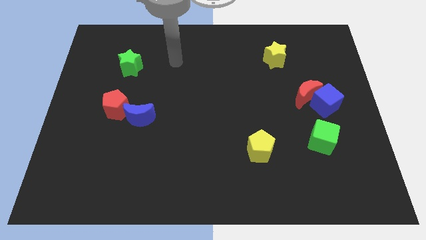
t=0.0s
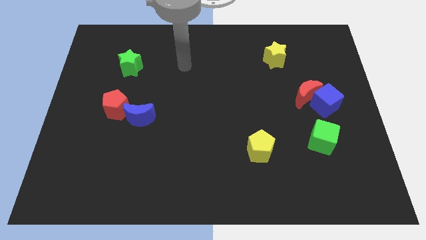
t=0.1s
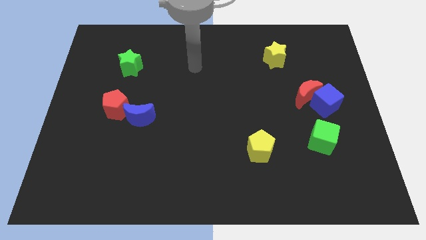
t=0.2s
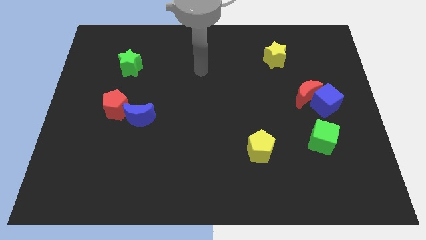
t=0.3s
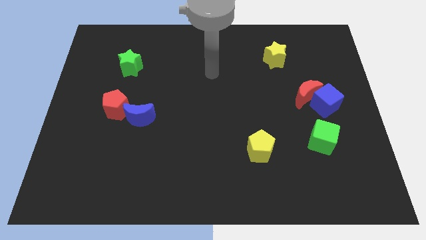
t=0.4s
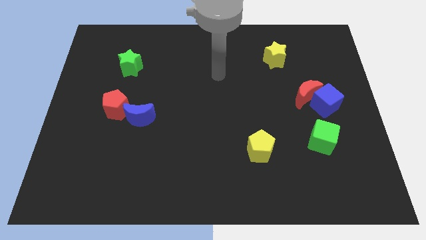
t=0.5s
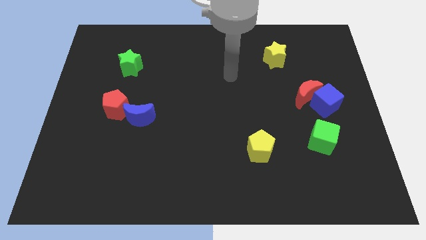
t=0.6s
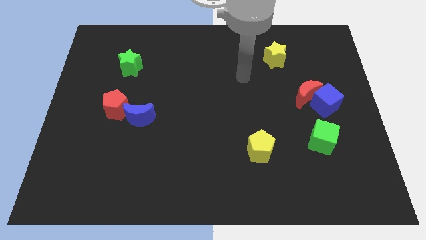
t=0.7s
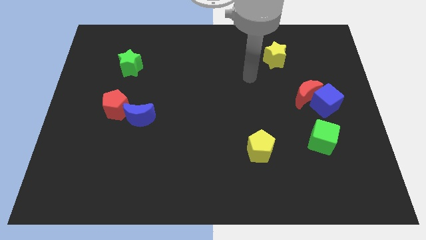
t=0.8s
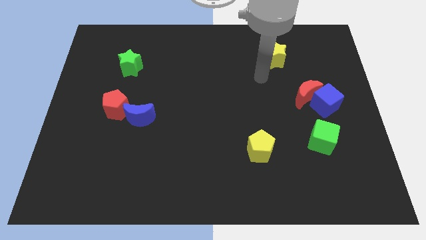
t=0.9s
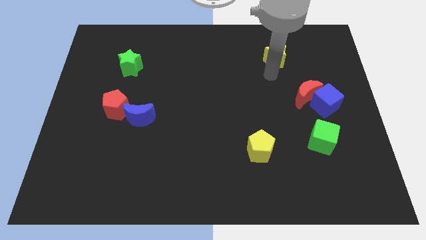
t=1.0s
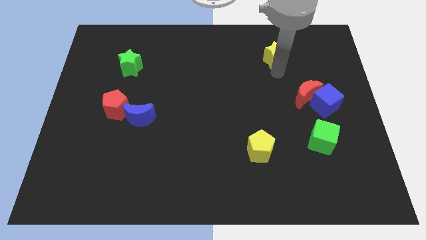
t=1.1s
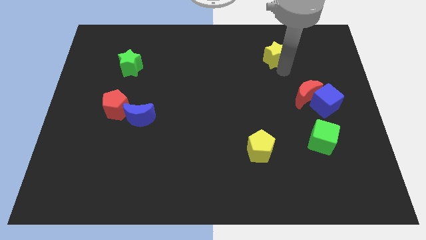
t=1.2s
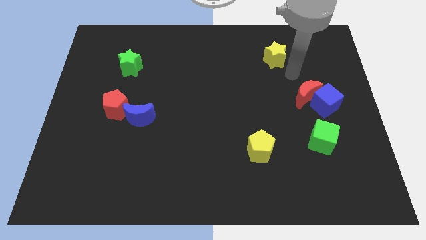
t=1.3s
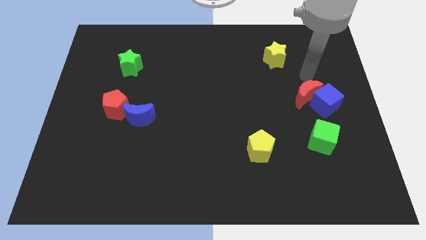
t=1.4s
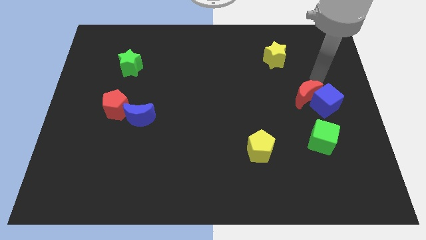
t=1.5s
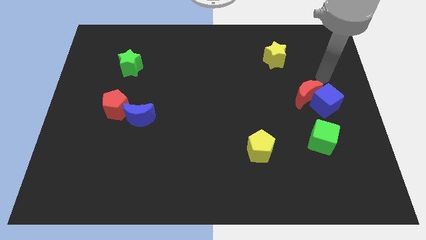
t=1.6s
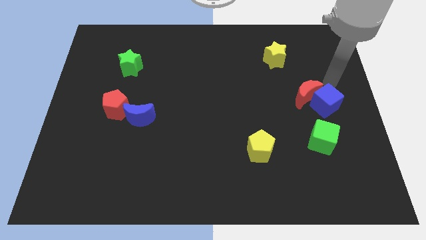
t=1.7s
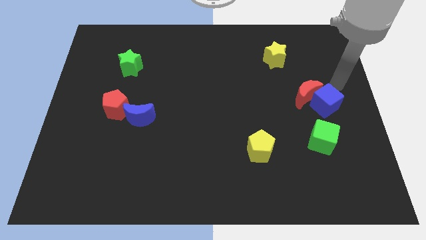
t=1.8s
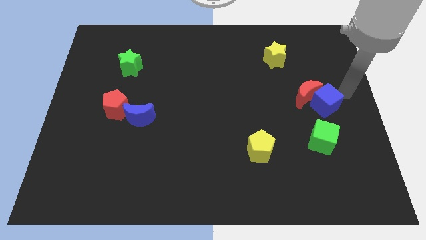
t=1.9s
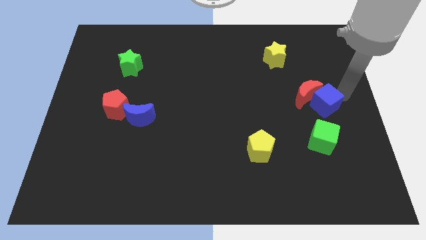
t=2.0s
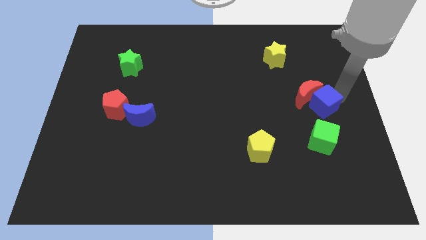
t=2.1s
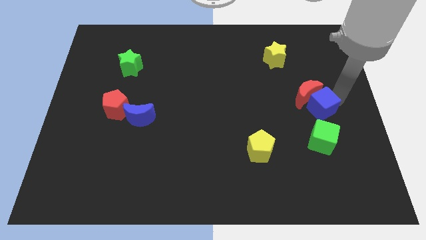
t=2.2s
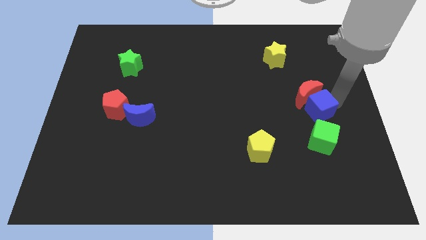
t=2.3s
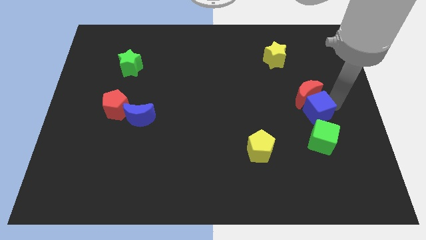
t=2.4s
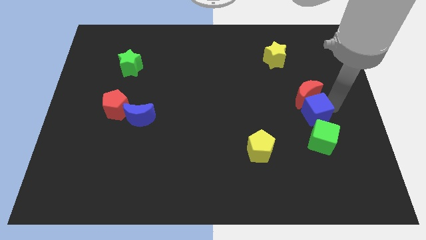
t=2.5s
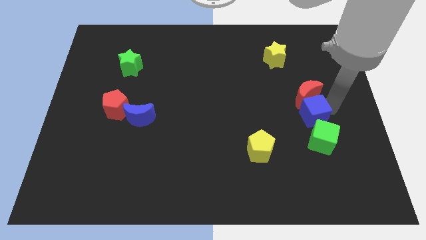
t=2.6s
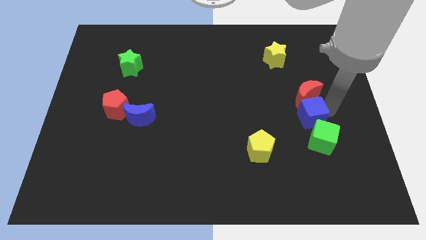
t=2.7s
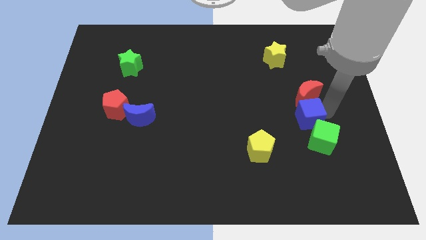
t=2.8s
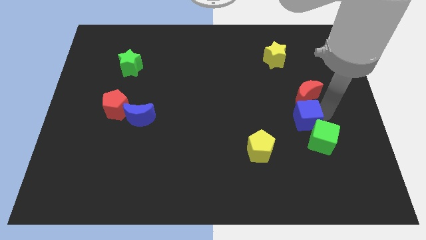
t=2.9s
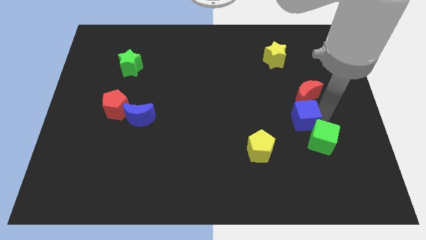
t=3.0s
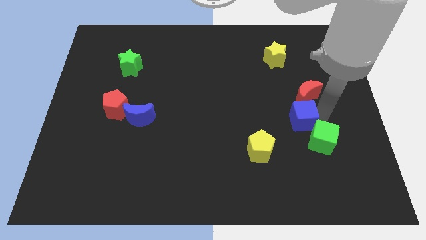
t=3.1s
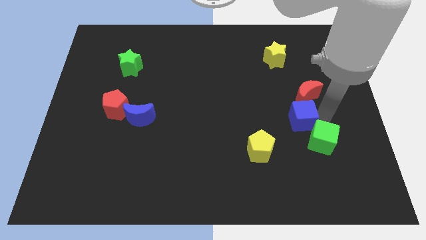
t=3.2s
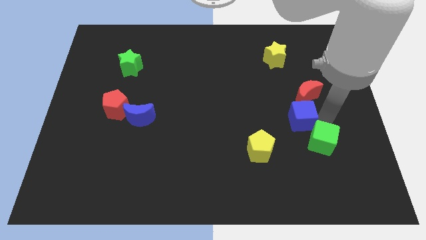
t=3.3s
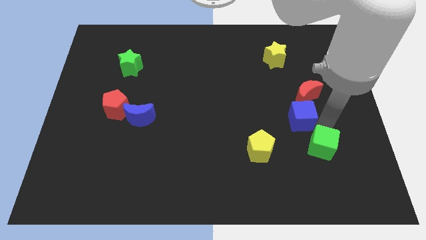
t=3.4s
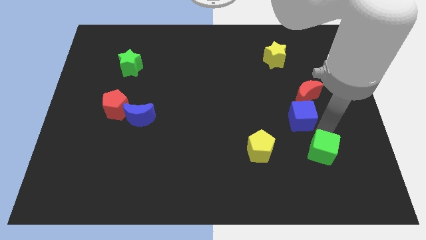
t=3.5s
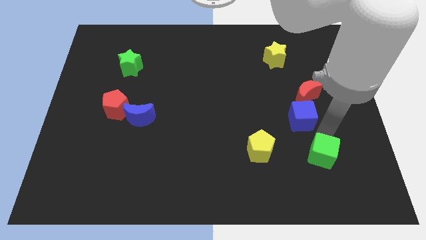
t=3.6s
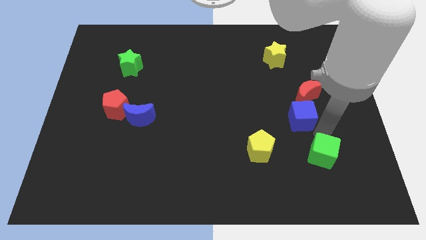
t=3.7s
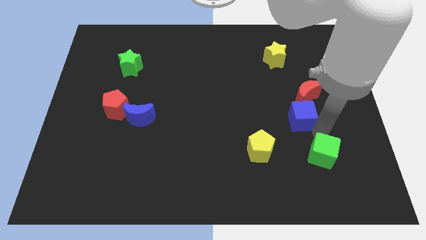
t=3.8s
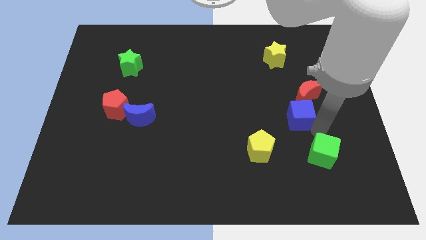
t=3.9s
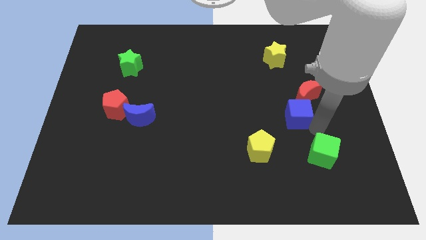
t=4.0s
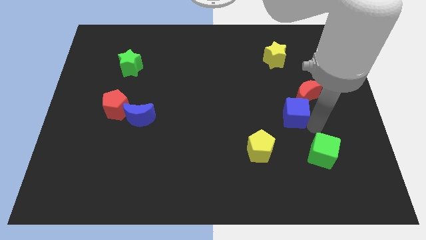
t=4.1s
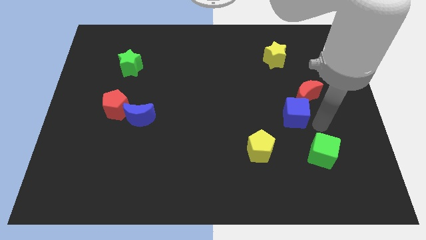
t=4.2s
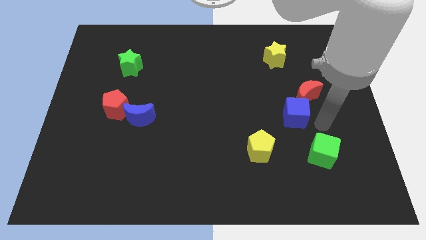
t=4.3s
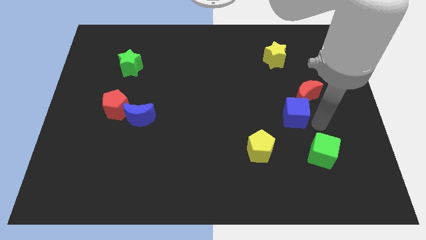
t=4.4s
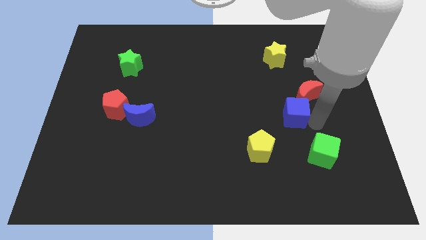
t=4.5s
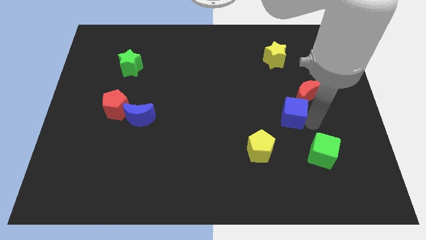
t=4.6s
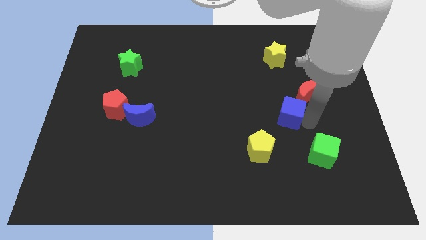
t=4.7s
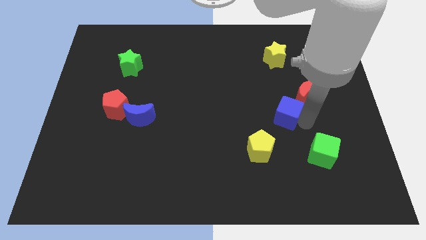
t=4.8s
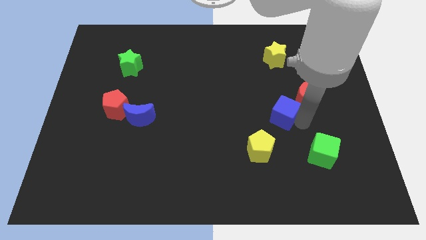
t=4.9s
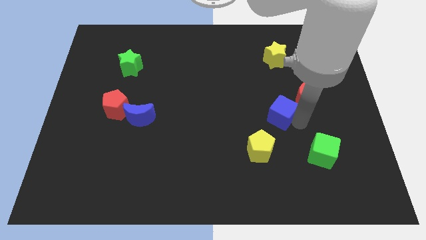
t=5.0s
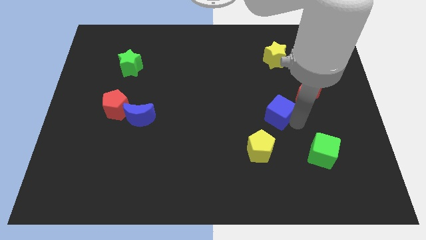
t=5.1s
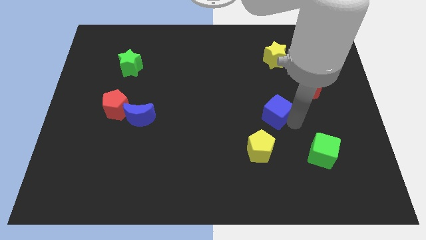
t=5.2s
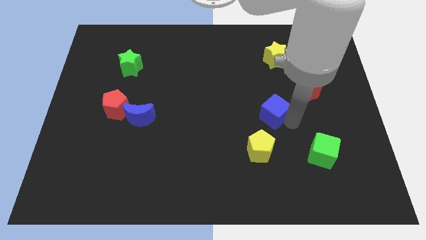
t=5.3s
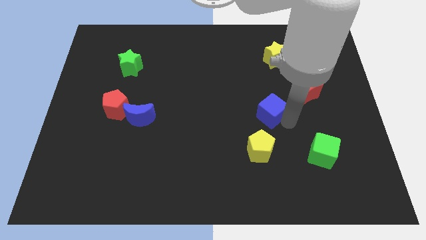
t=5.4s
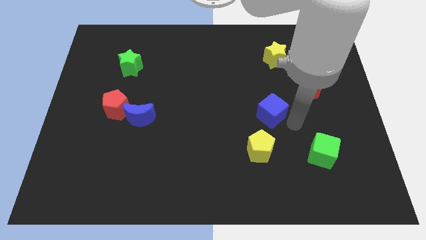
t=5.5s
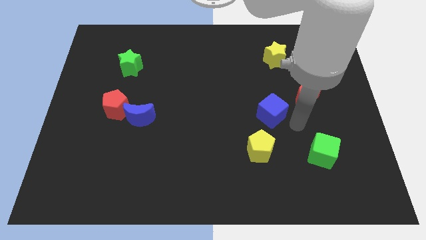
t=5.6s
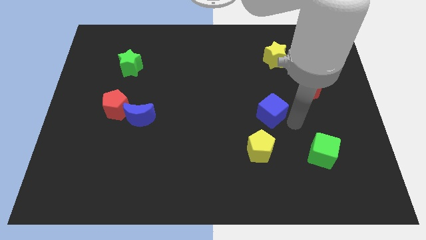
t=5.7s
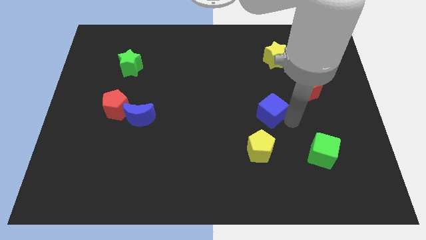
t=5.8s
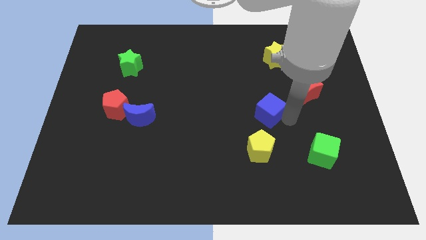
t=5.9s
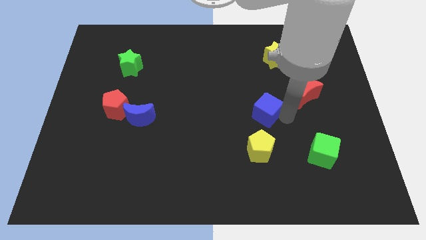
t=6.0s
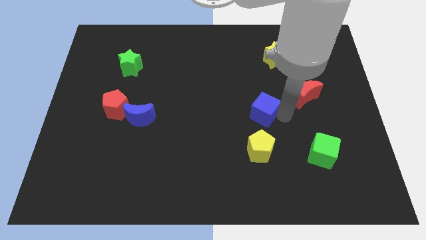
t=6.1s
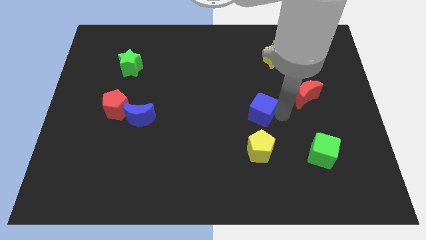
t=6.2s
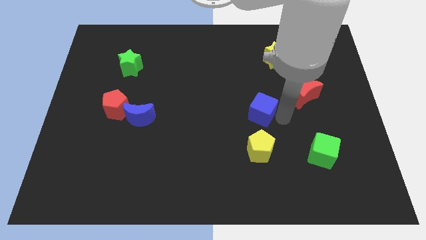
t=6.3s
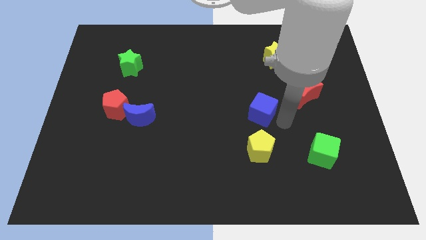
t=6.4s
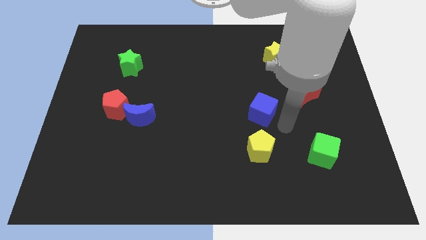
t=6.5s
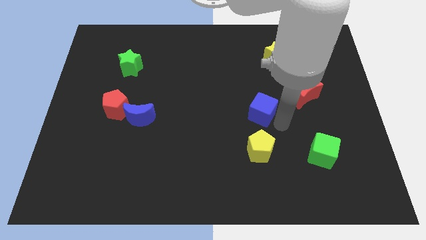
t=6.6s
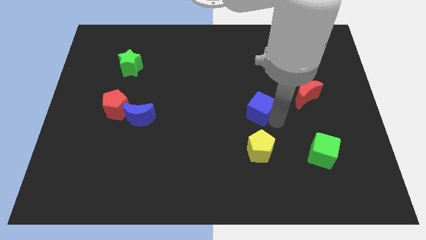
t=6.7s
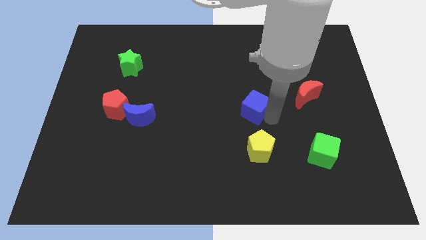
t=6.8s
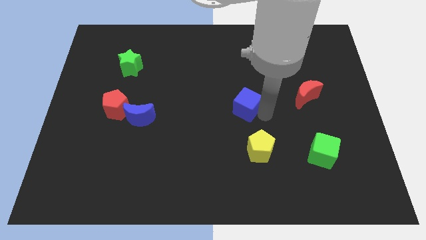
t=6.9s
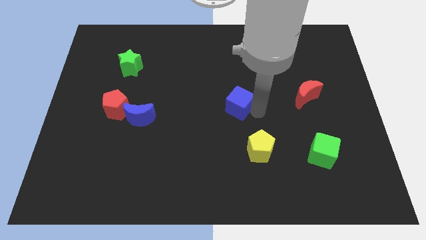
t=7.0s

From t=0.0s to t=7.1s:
push the blue cube left

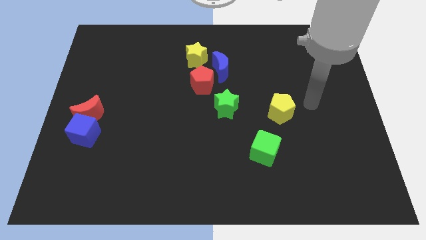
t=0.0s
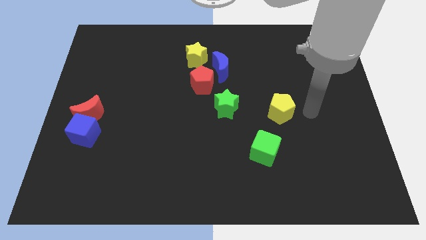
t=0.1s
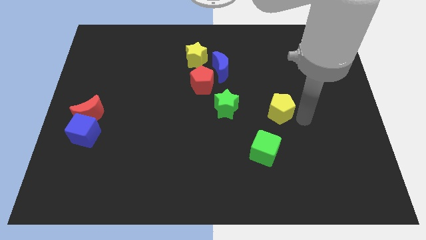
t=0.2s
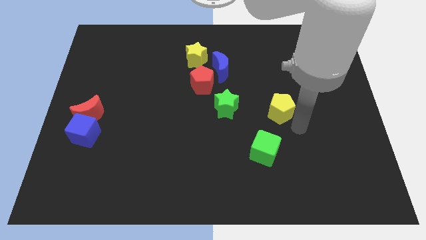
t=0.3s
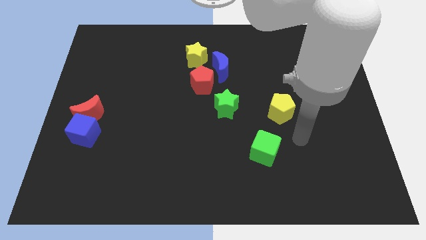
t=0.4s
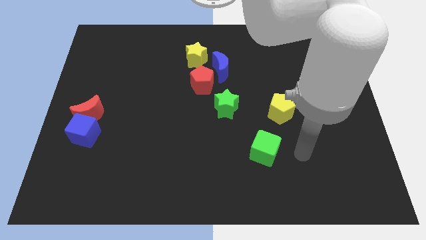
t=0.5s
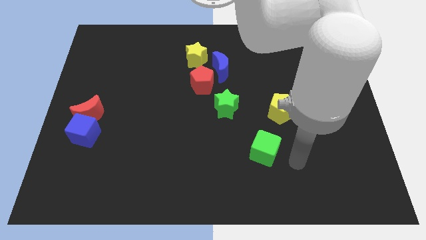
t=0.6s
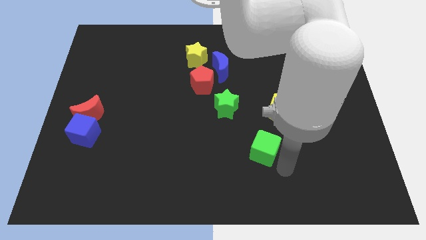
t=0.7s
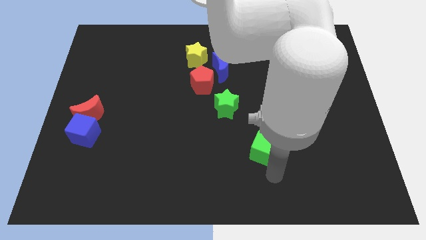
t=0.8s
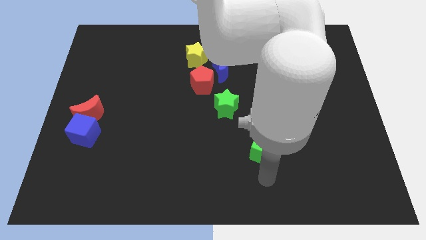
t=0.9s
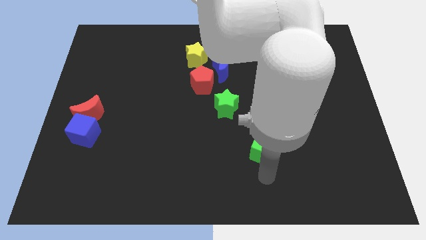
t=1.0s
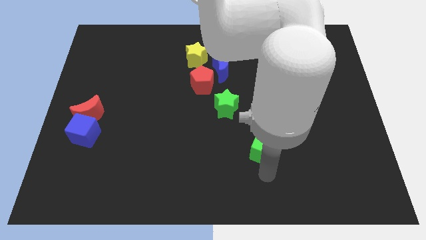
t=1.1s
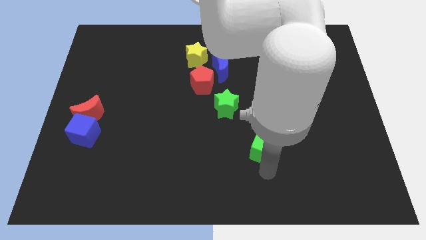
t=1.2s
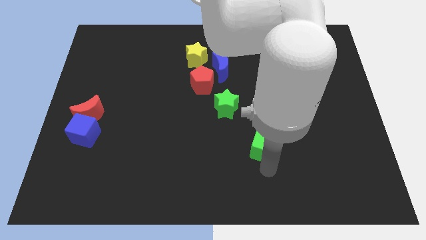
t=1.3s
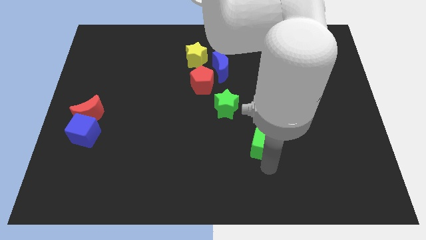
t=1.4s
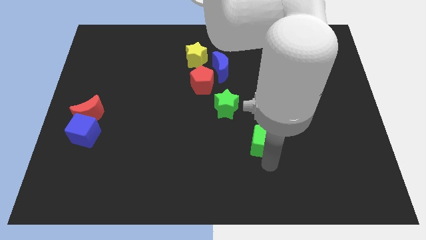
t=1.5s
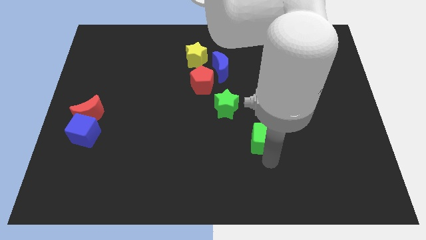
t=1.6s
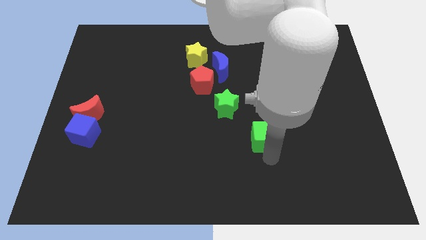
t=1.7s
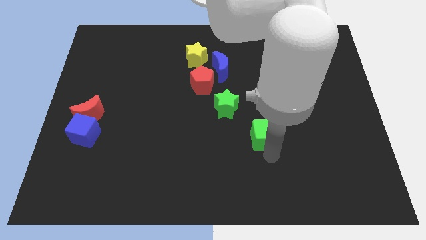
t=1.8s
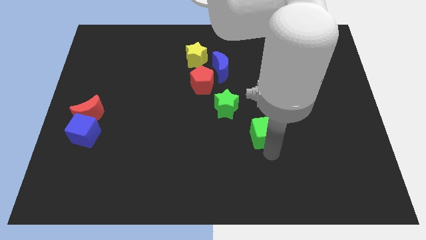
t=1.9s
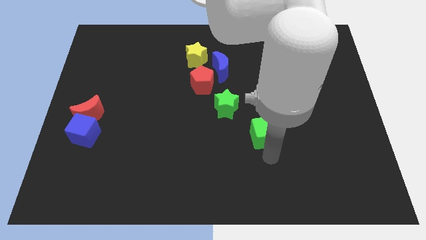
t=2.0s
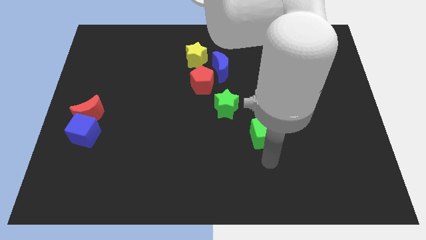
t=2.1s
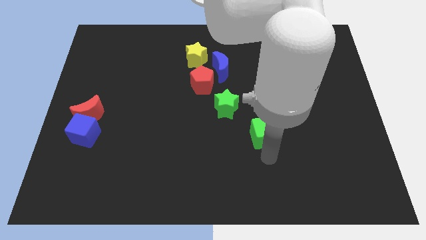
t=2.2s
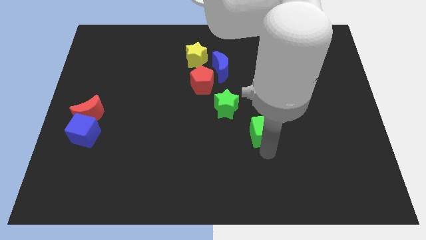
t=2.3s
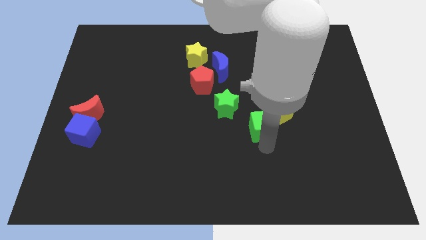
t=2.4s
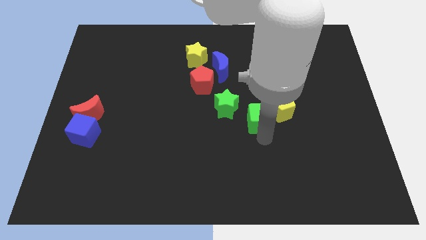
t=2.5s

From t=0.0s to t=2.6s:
move the green cube up a bit
